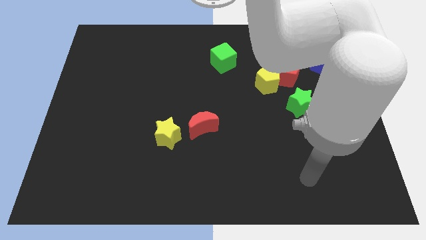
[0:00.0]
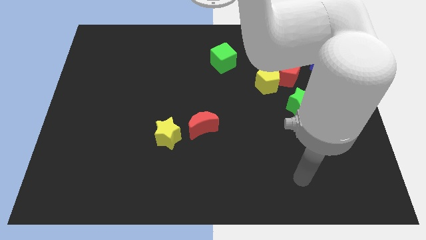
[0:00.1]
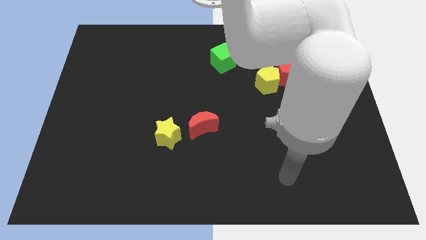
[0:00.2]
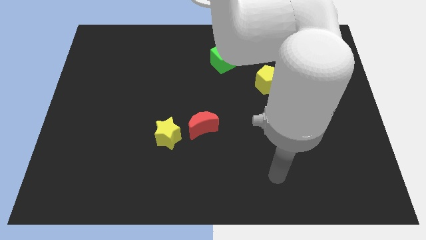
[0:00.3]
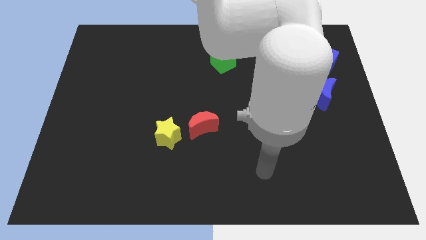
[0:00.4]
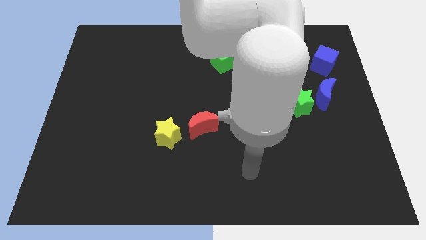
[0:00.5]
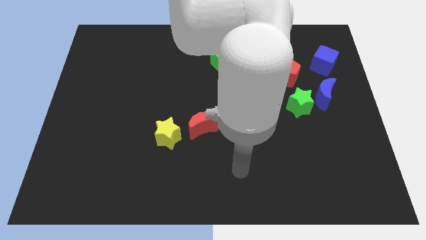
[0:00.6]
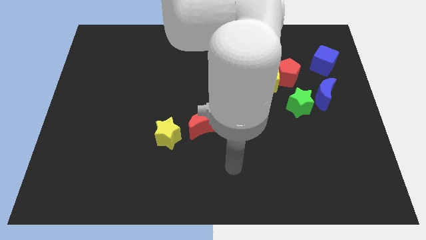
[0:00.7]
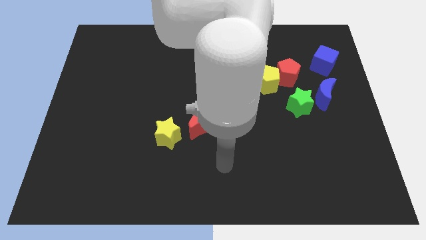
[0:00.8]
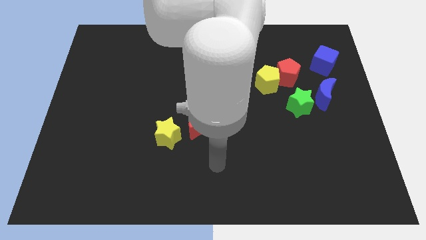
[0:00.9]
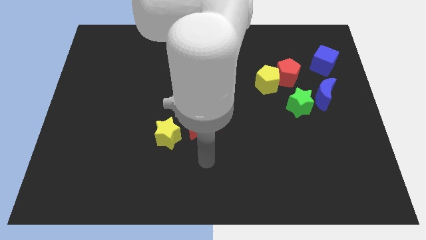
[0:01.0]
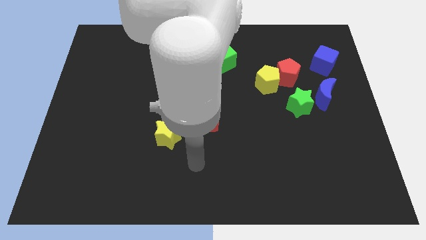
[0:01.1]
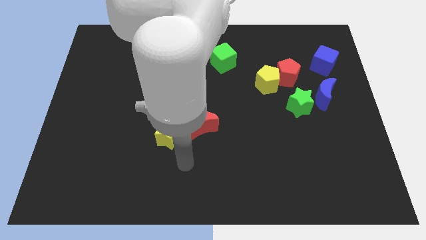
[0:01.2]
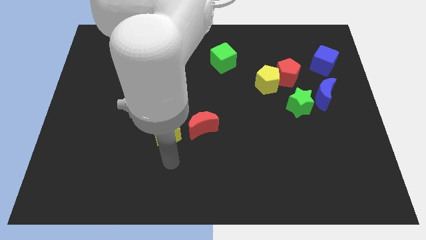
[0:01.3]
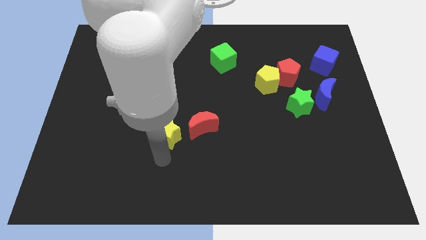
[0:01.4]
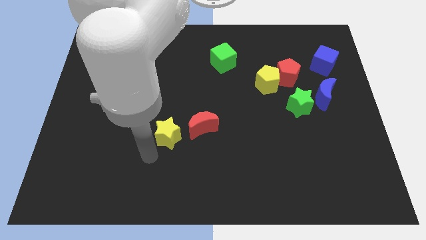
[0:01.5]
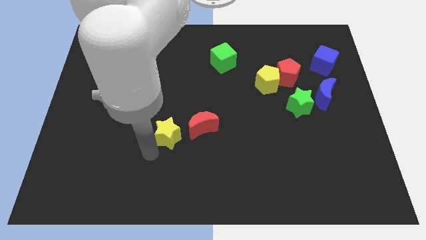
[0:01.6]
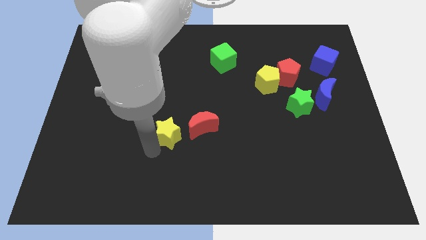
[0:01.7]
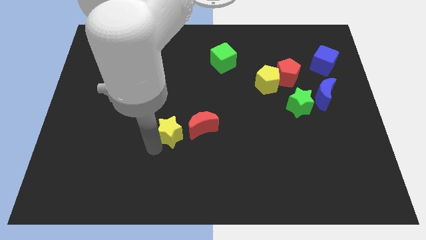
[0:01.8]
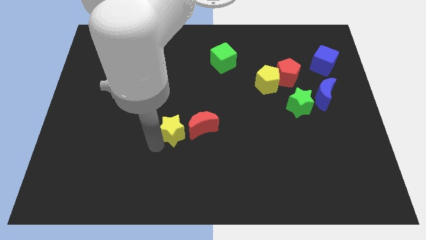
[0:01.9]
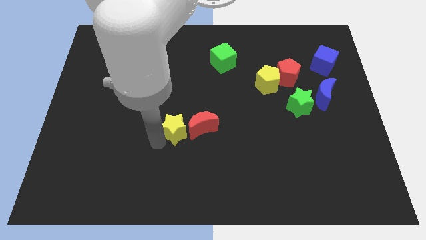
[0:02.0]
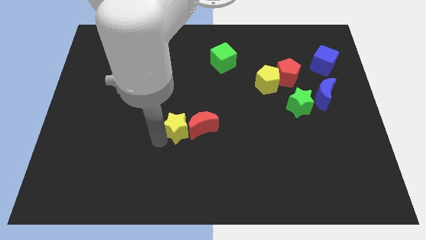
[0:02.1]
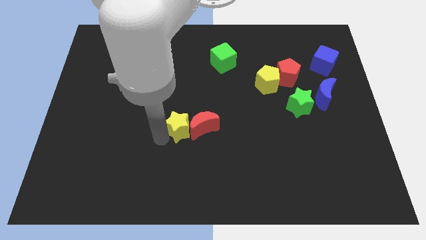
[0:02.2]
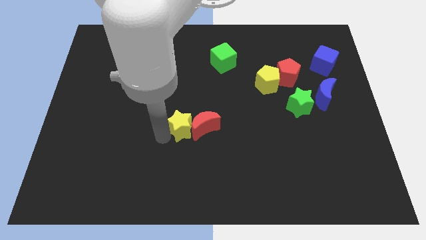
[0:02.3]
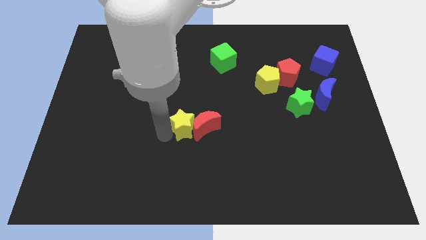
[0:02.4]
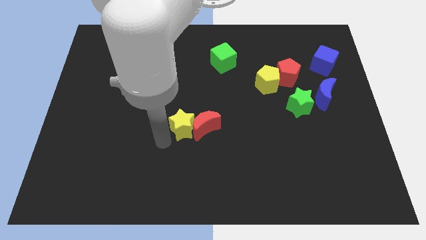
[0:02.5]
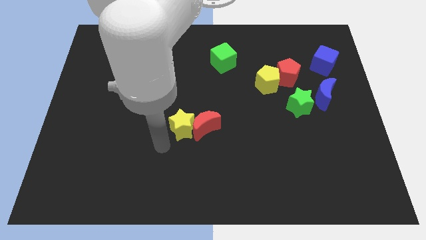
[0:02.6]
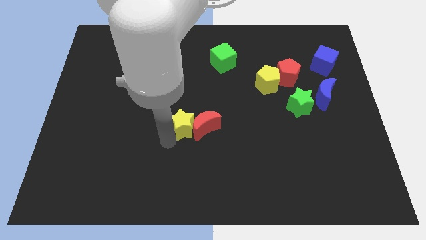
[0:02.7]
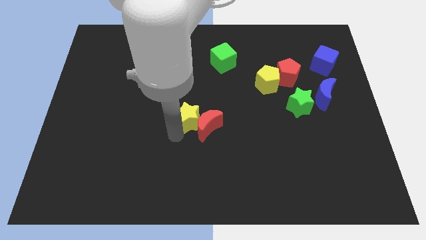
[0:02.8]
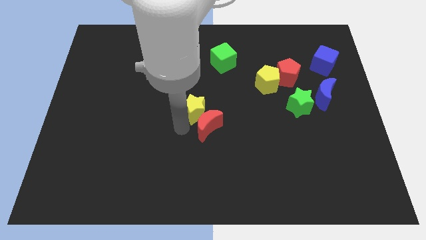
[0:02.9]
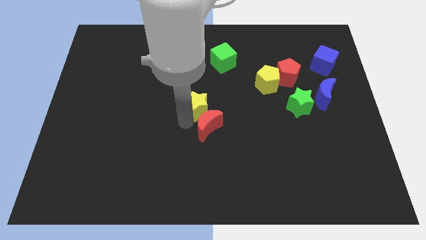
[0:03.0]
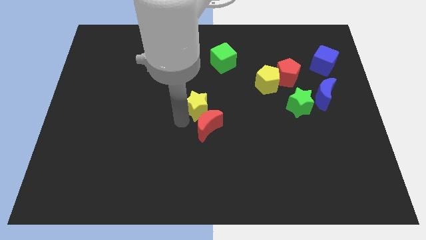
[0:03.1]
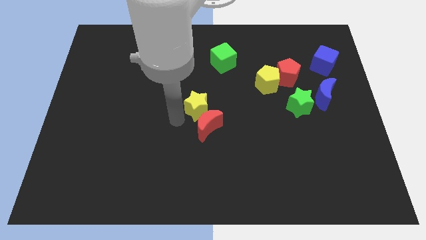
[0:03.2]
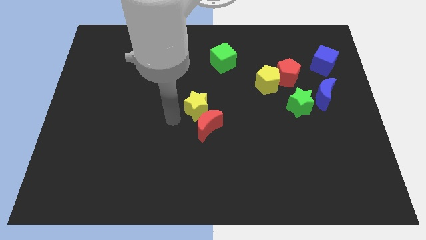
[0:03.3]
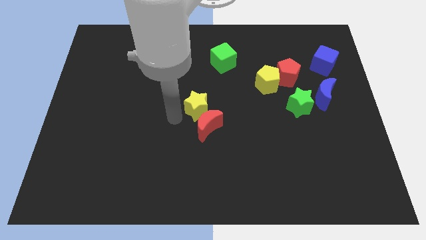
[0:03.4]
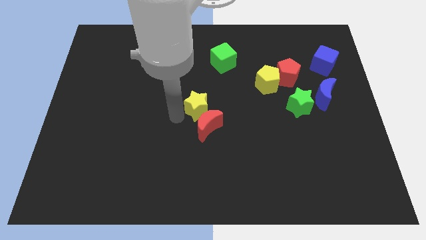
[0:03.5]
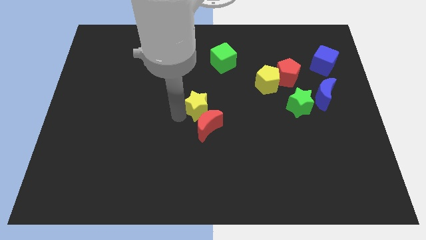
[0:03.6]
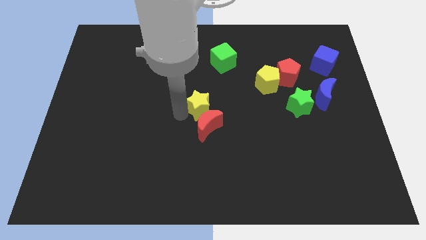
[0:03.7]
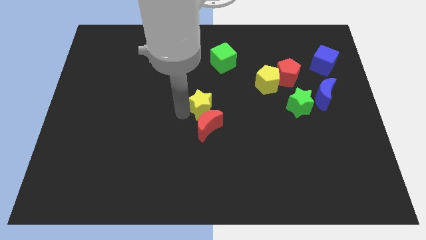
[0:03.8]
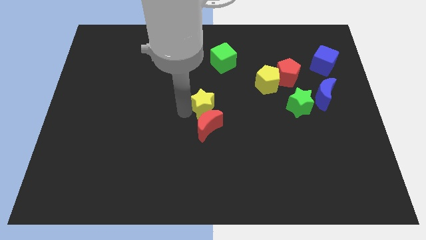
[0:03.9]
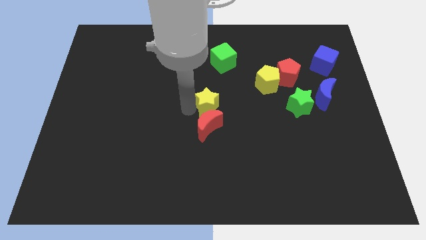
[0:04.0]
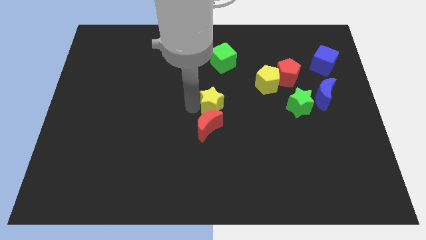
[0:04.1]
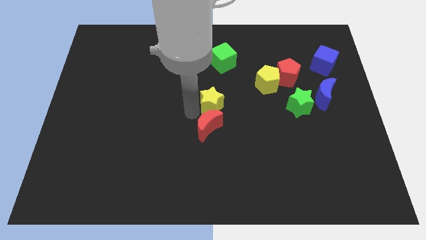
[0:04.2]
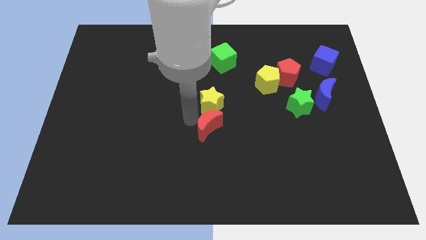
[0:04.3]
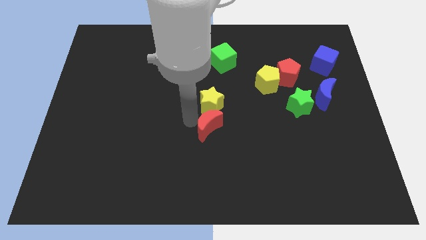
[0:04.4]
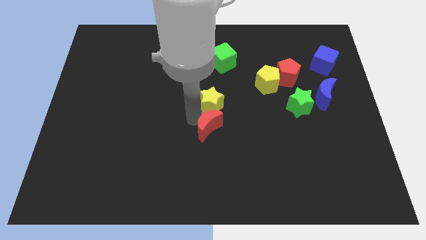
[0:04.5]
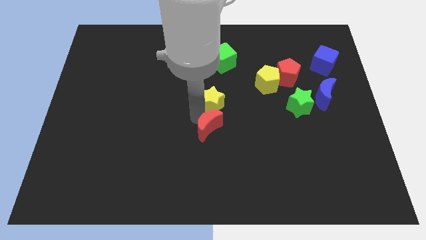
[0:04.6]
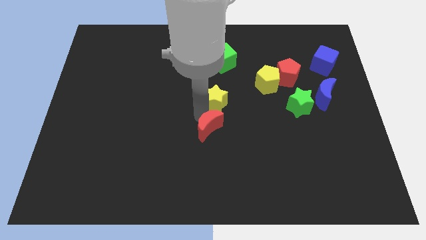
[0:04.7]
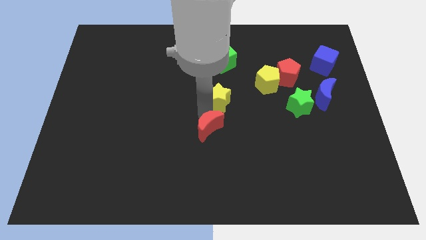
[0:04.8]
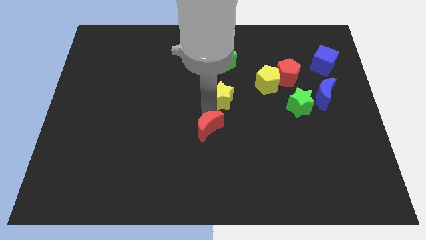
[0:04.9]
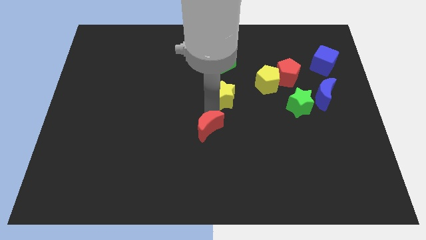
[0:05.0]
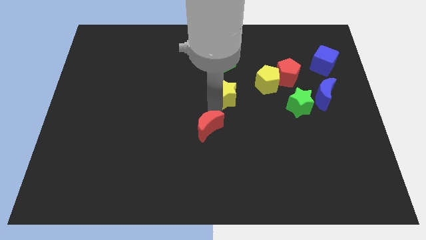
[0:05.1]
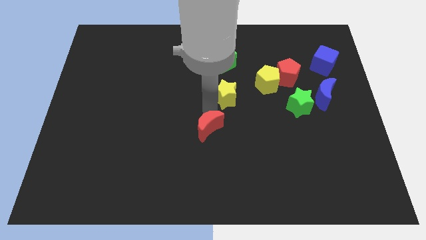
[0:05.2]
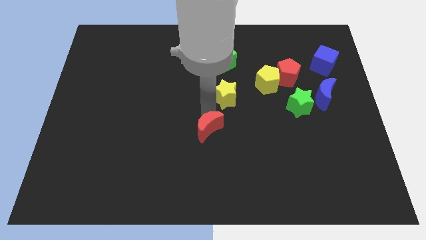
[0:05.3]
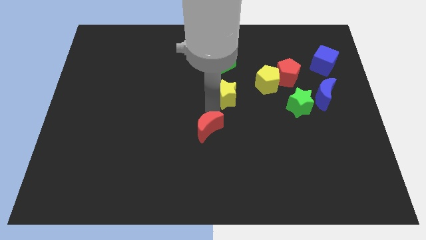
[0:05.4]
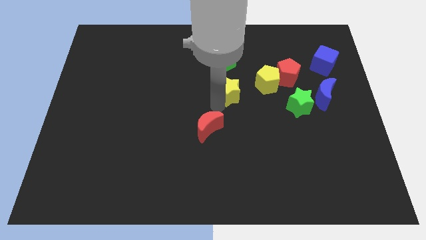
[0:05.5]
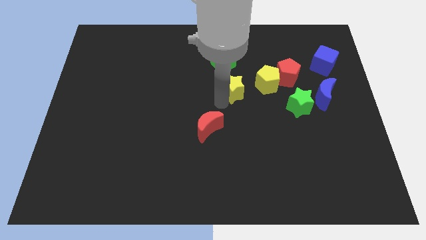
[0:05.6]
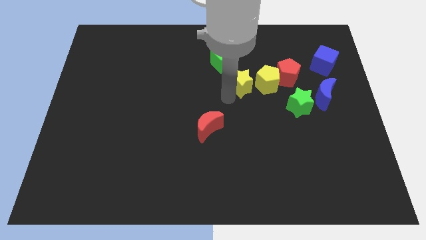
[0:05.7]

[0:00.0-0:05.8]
move the yellow star up and right diagonally

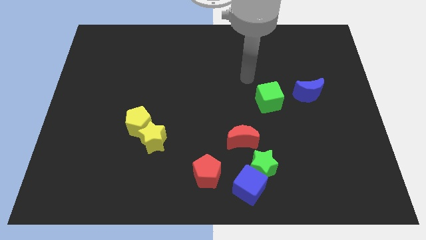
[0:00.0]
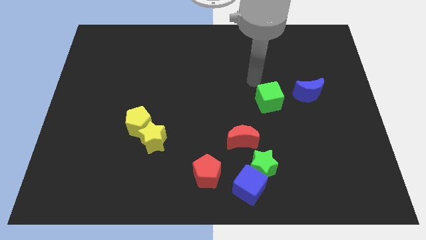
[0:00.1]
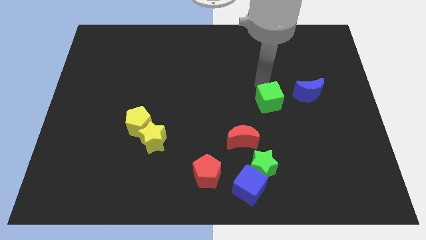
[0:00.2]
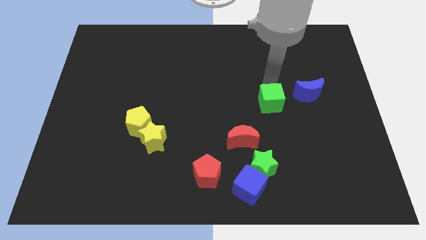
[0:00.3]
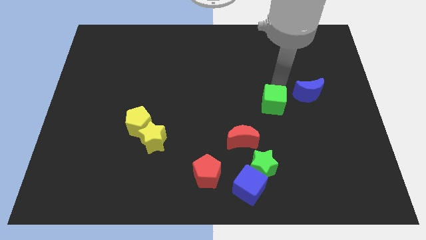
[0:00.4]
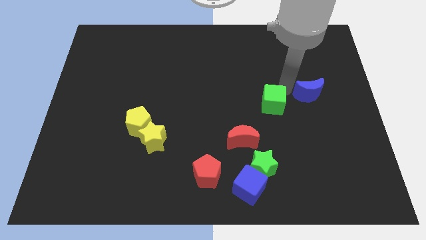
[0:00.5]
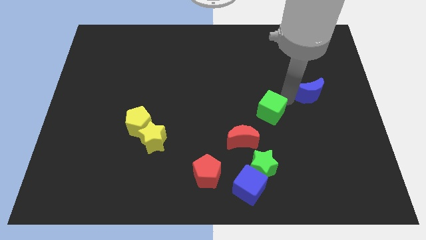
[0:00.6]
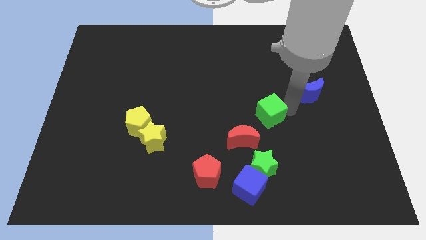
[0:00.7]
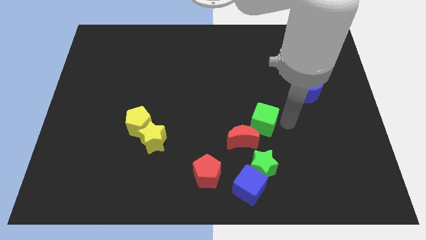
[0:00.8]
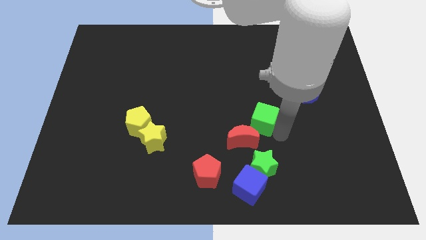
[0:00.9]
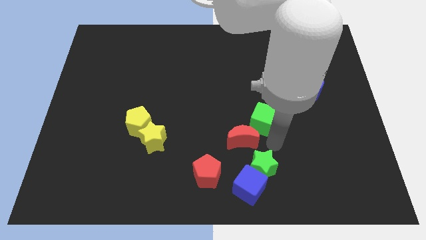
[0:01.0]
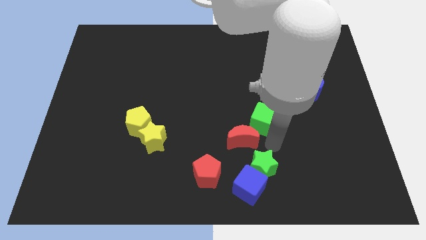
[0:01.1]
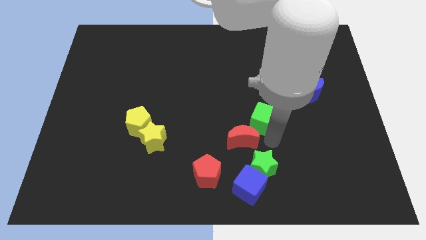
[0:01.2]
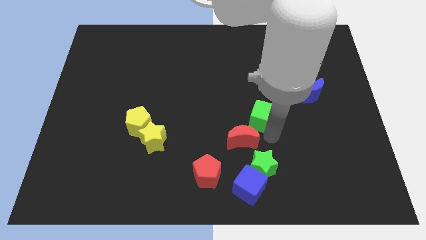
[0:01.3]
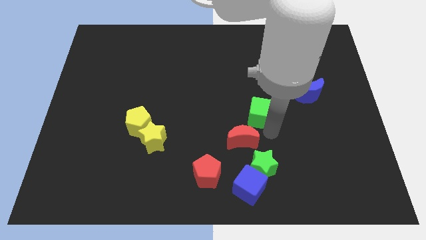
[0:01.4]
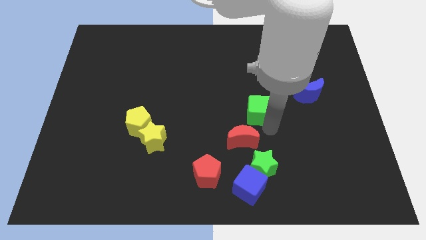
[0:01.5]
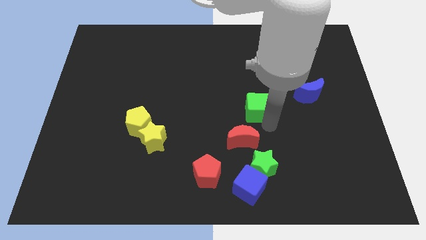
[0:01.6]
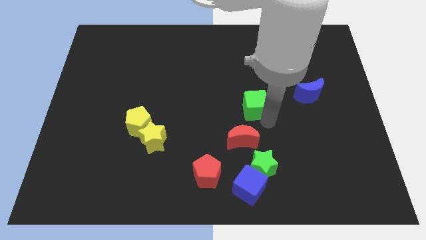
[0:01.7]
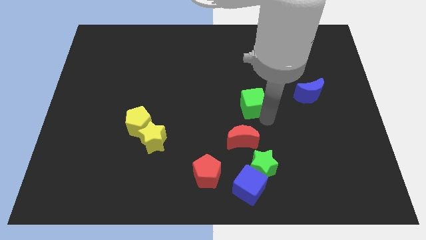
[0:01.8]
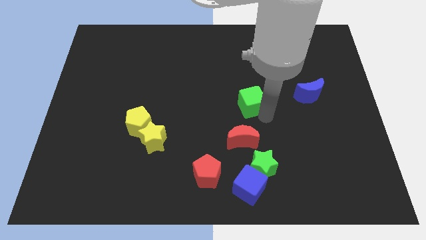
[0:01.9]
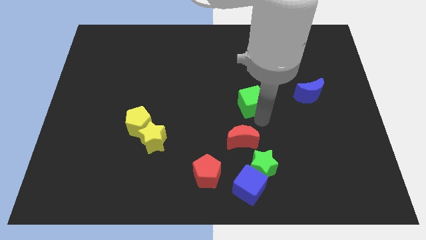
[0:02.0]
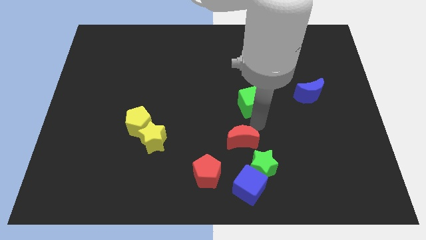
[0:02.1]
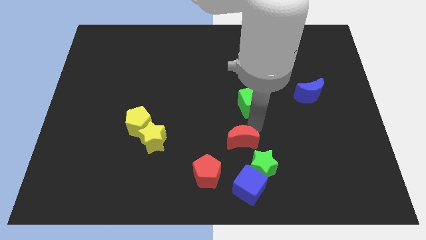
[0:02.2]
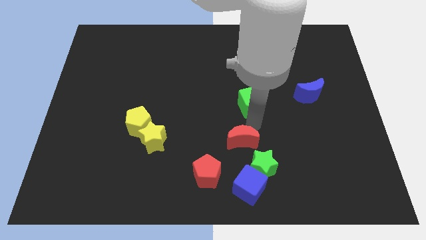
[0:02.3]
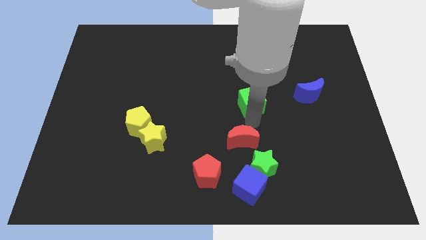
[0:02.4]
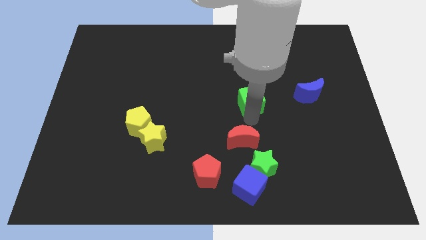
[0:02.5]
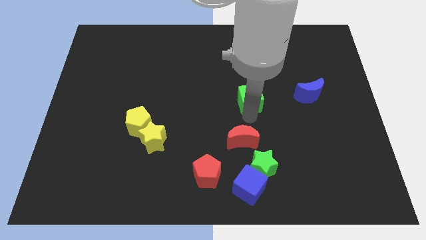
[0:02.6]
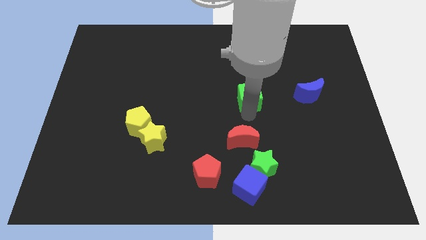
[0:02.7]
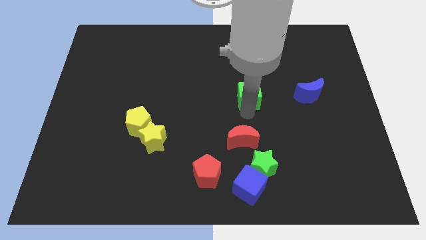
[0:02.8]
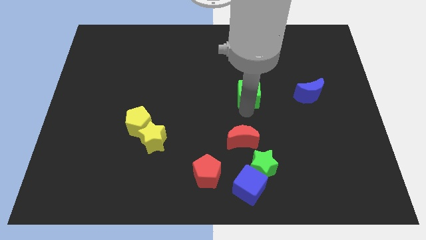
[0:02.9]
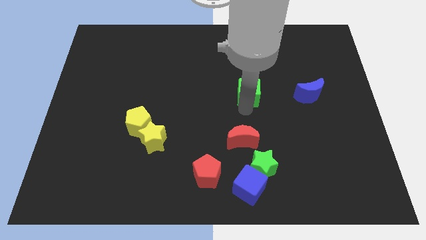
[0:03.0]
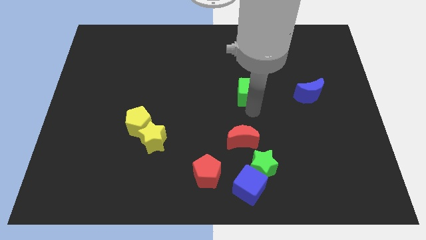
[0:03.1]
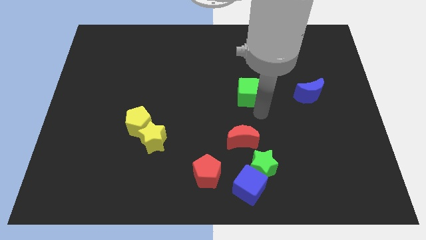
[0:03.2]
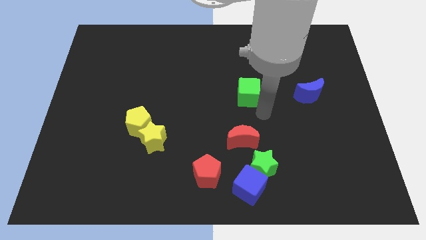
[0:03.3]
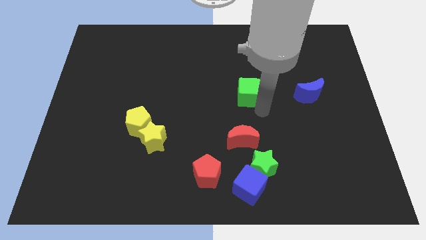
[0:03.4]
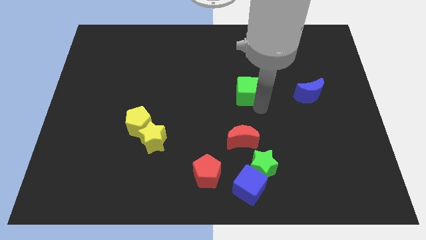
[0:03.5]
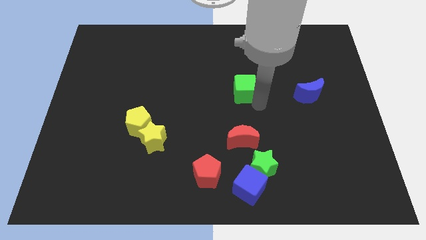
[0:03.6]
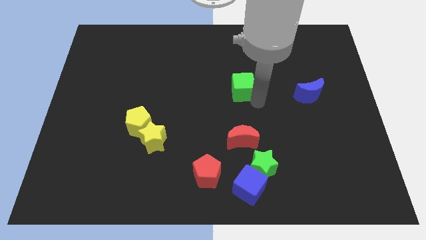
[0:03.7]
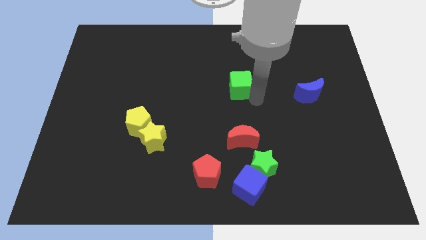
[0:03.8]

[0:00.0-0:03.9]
push the green cube a little bit diagonally upwards and to the left
